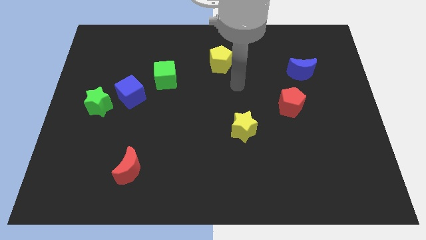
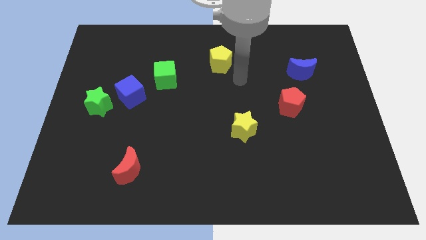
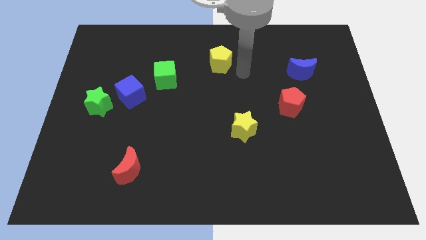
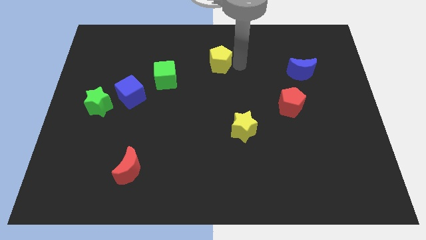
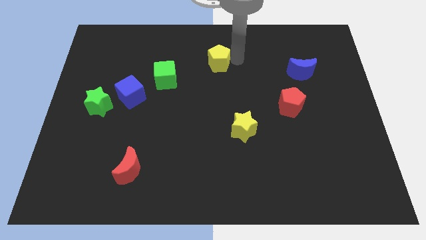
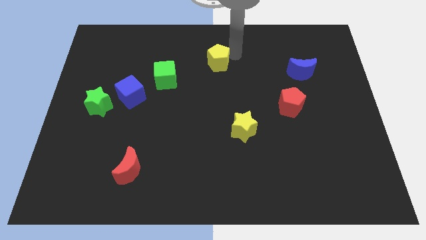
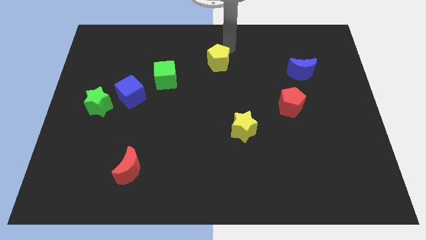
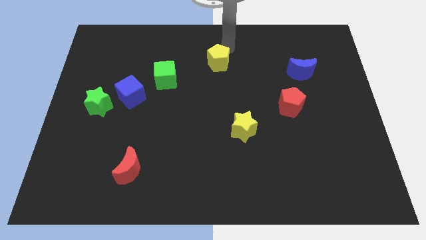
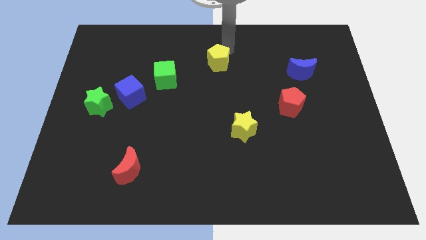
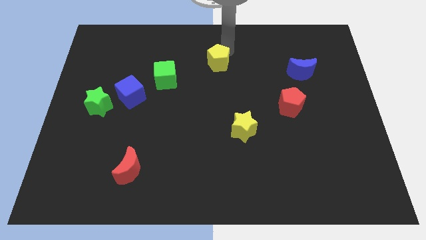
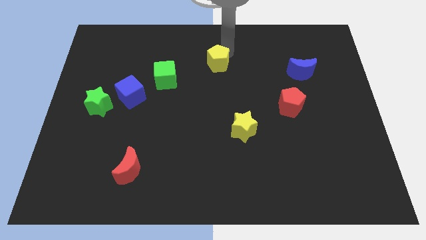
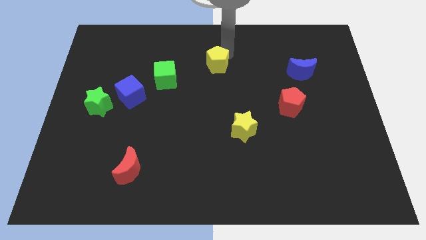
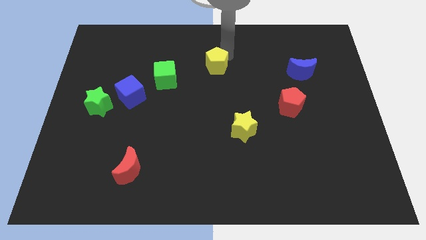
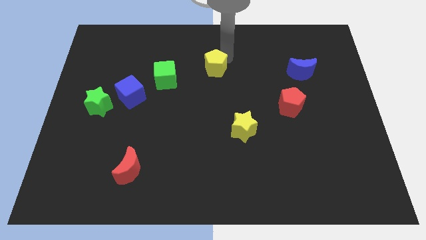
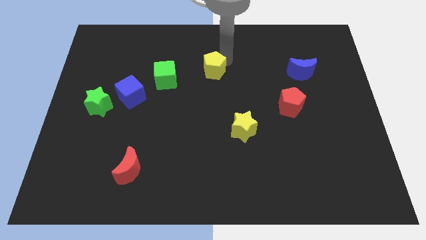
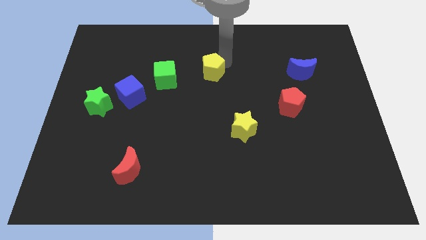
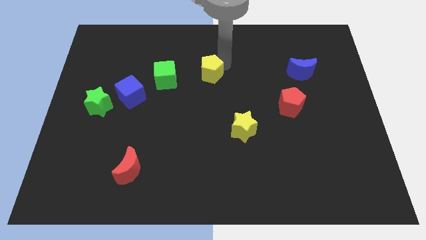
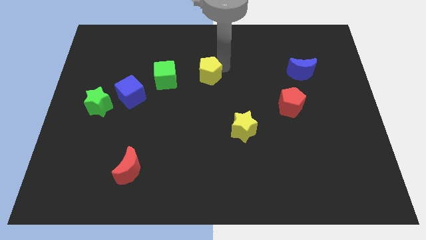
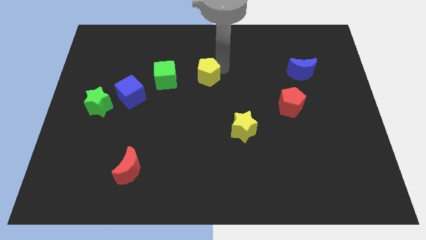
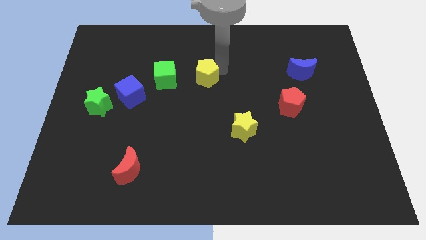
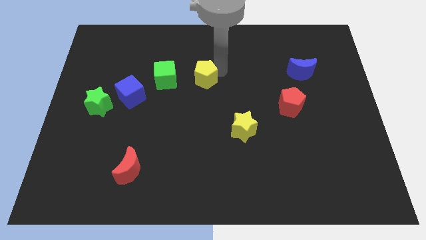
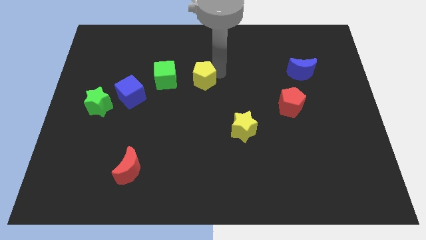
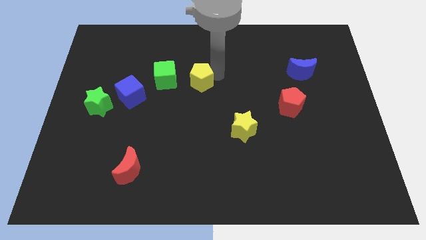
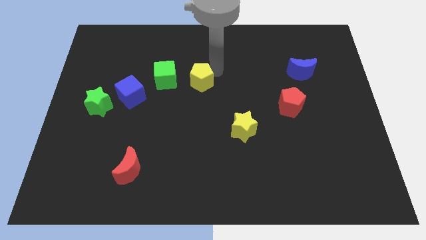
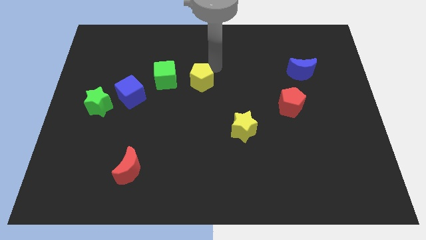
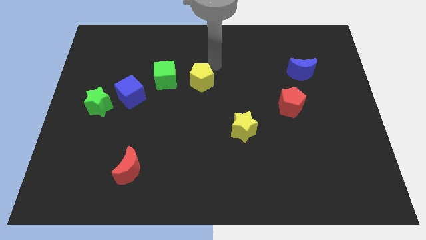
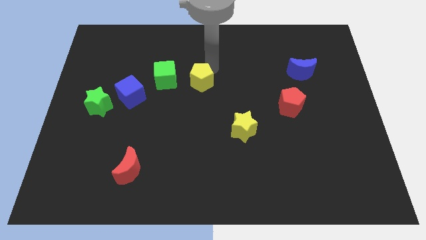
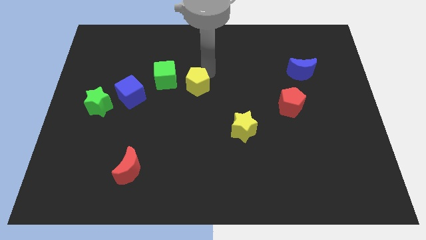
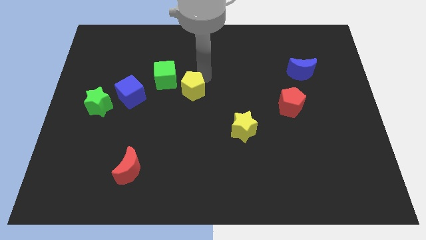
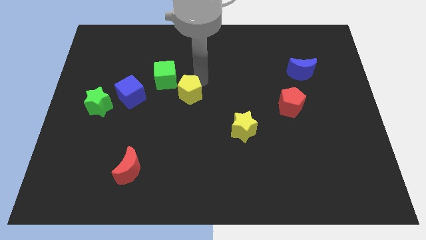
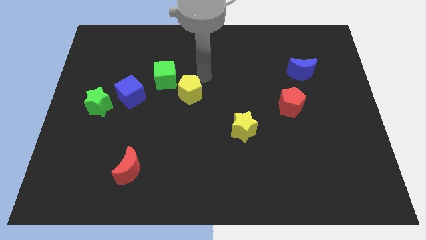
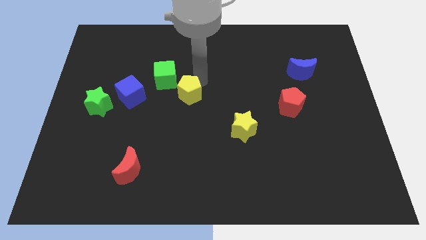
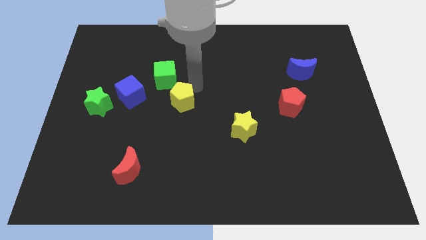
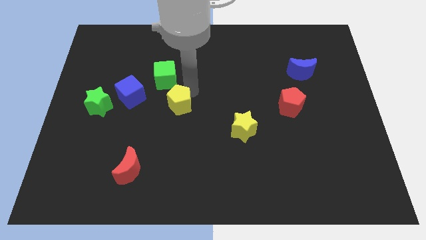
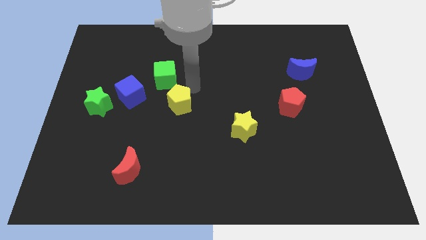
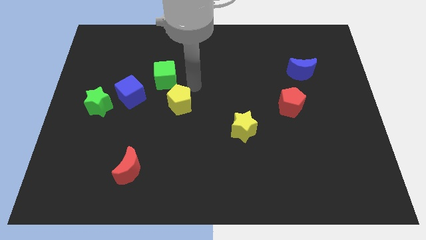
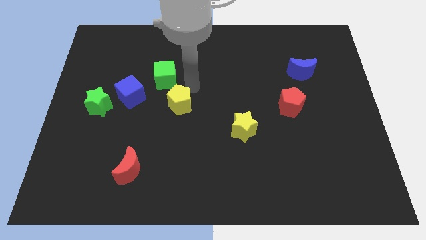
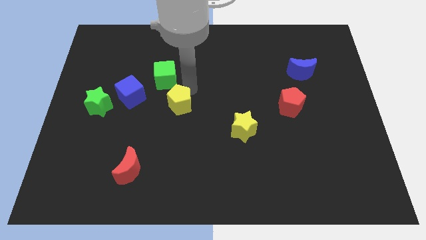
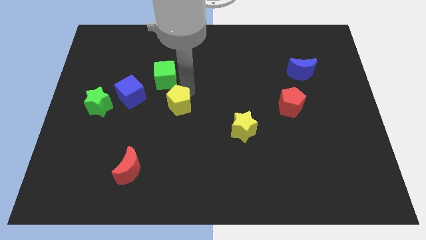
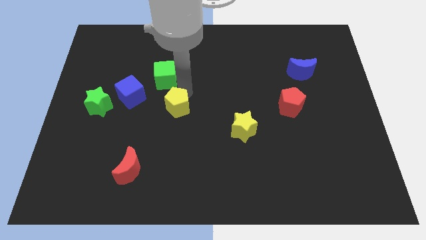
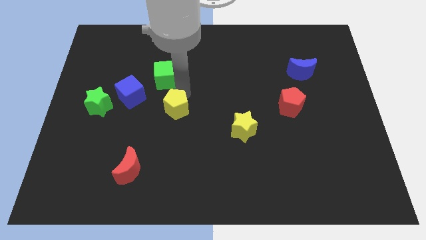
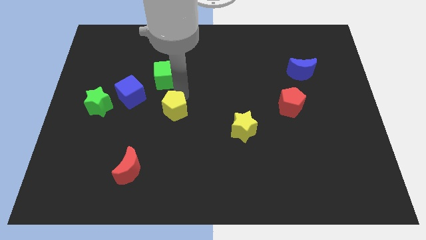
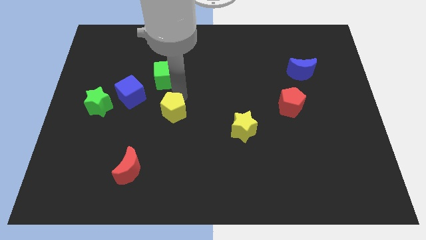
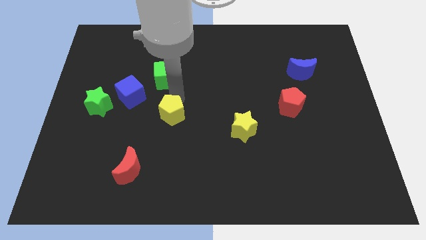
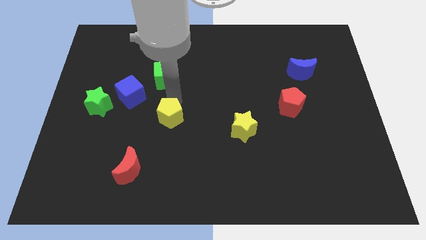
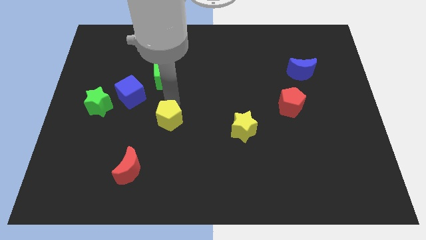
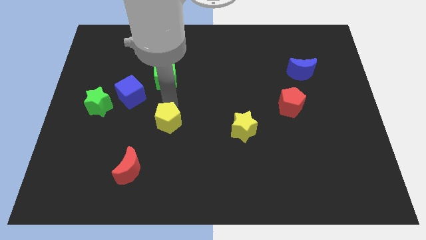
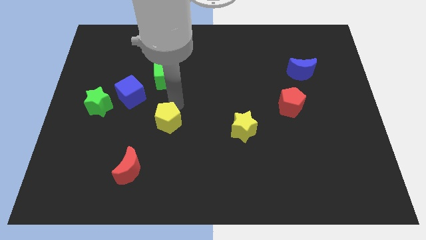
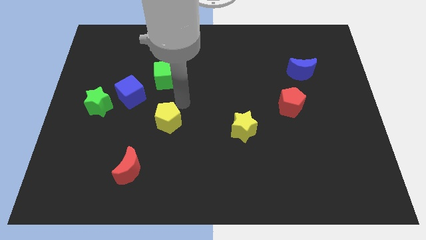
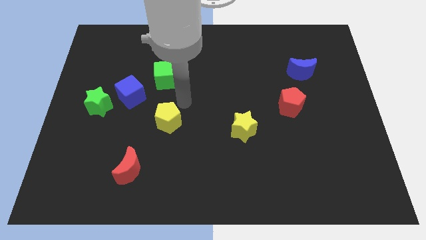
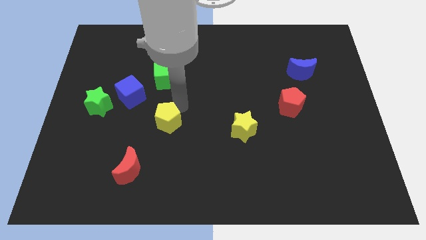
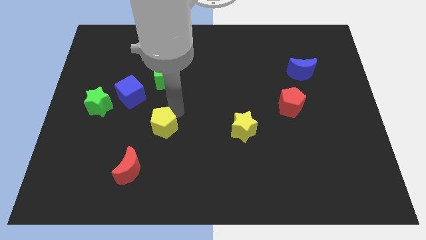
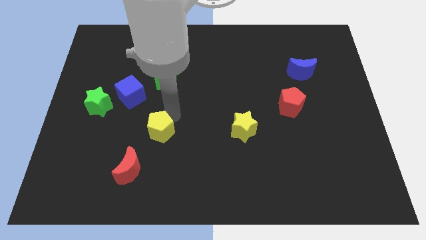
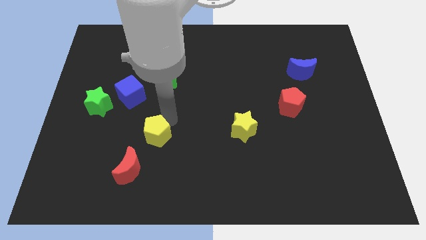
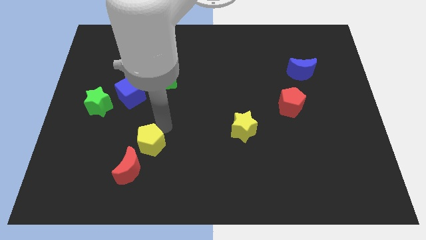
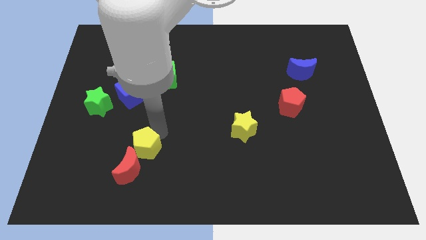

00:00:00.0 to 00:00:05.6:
put the yellow pentagon towards the red moon

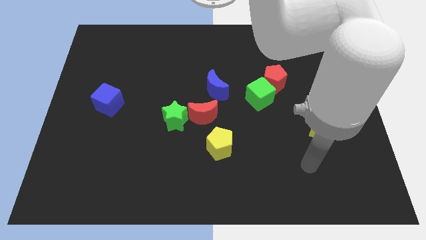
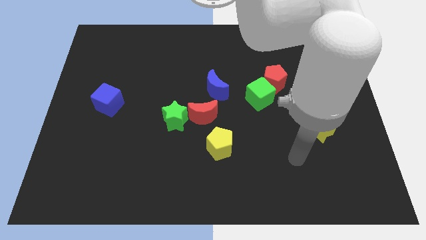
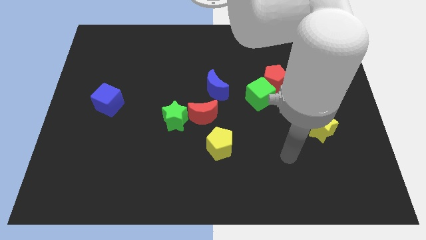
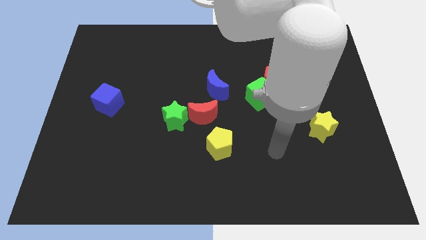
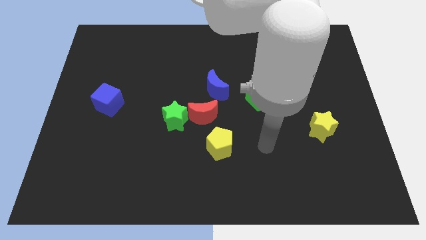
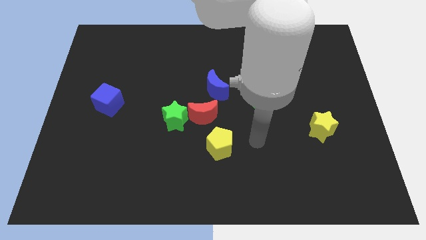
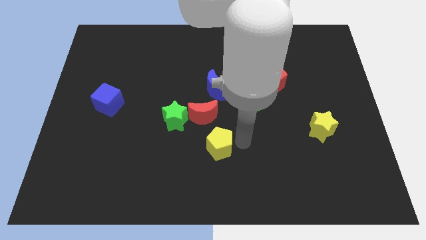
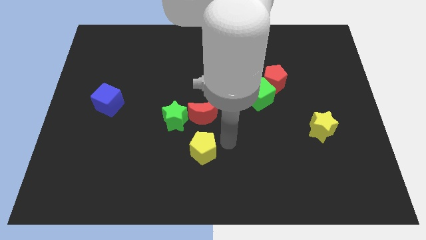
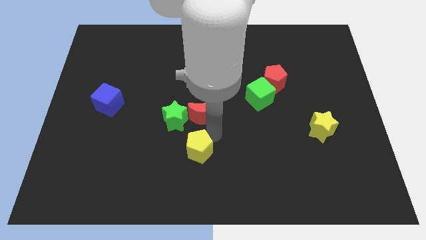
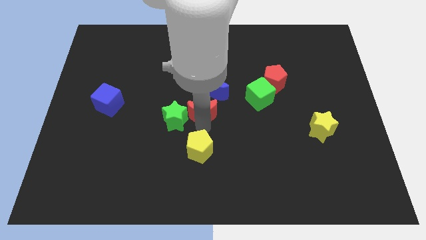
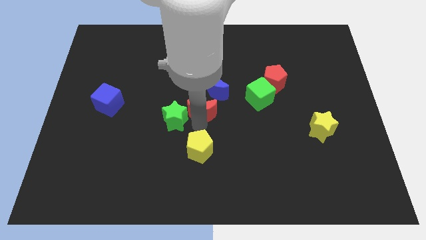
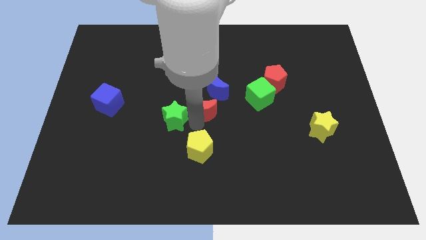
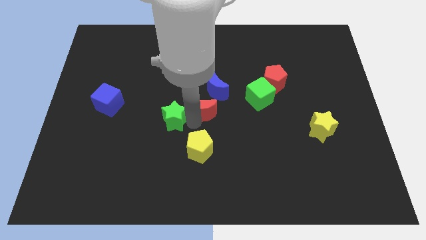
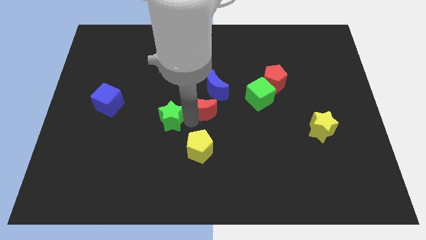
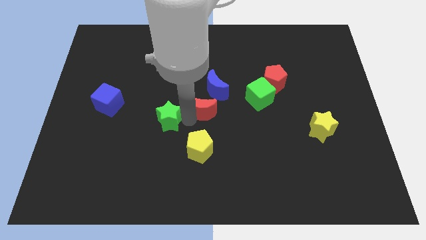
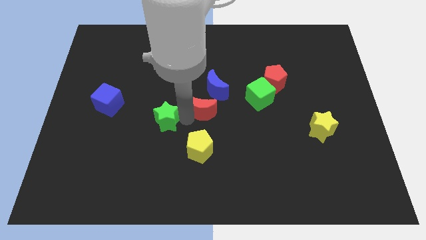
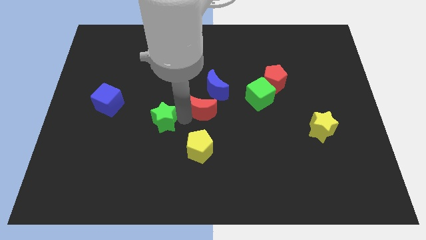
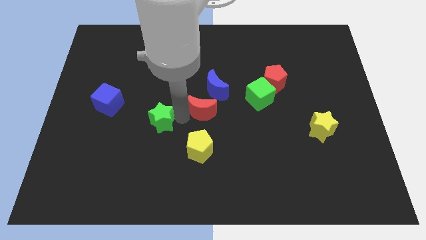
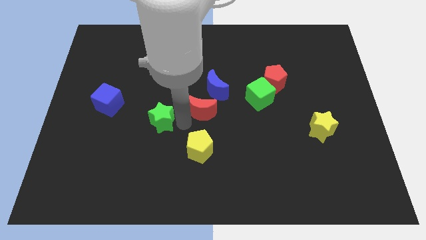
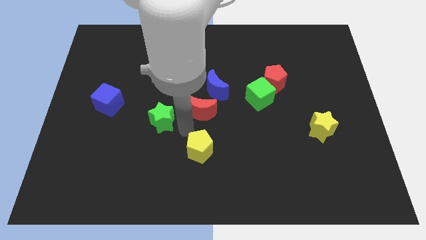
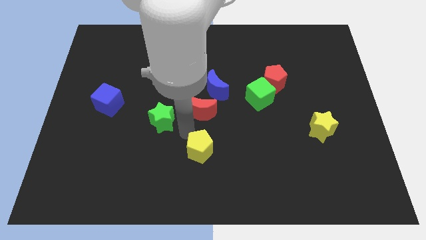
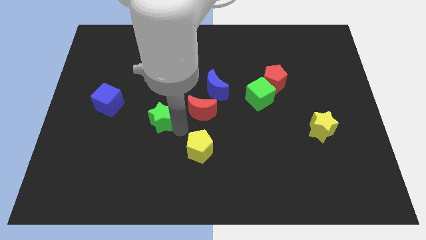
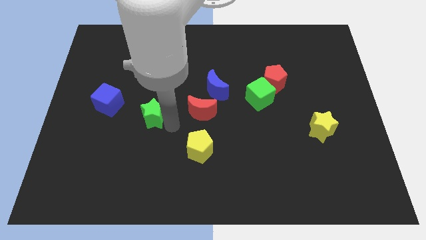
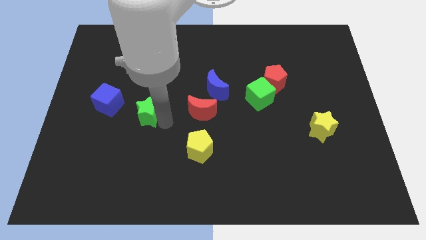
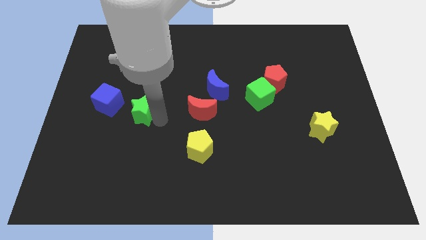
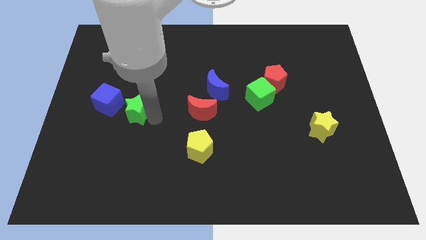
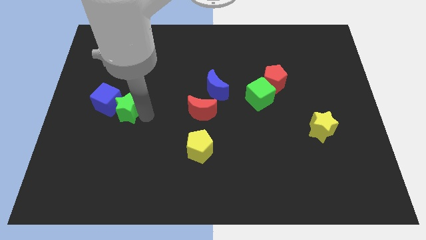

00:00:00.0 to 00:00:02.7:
put the green star next to the blue cube
